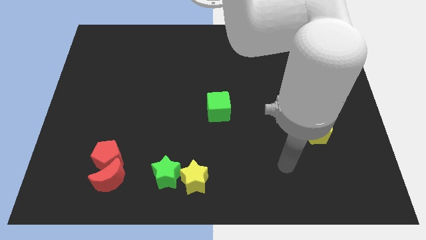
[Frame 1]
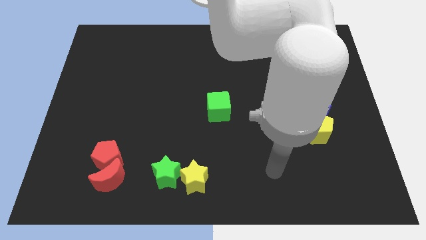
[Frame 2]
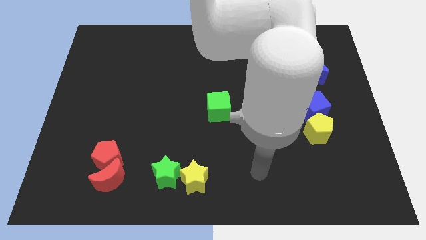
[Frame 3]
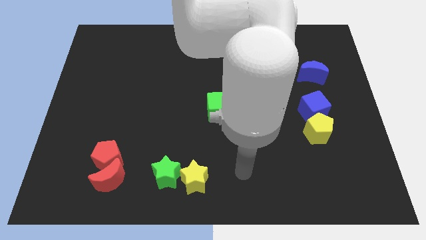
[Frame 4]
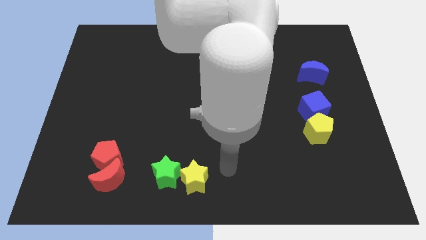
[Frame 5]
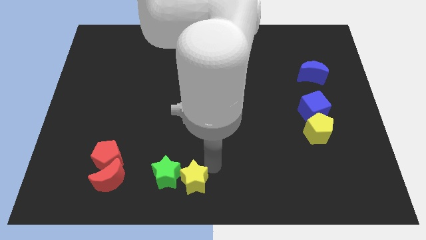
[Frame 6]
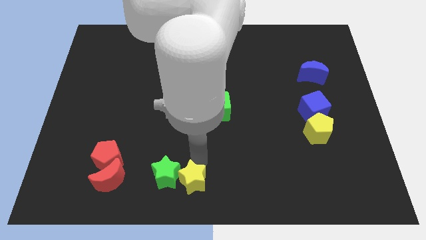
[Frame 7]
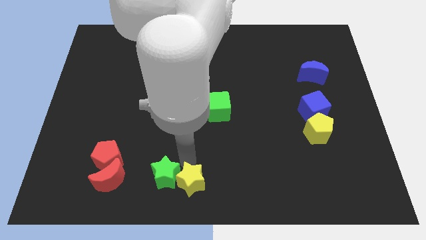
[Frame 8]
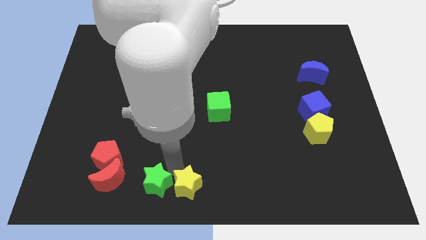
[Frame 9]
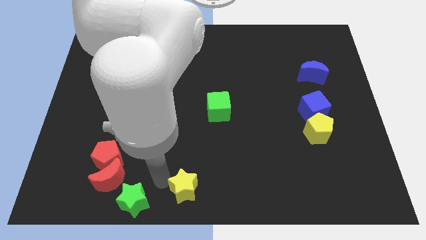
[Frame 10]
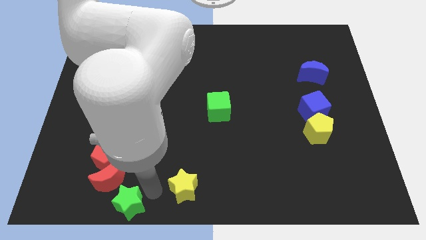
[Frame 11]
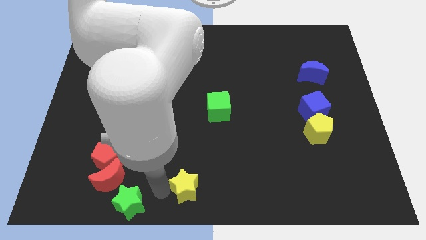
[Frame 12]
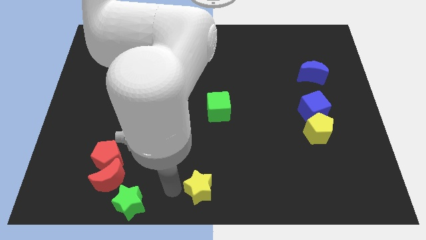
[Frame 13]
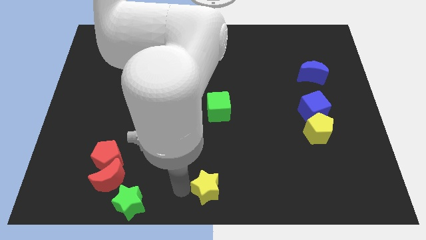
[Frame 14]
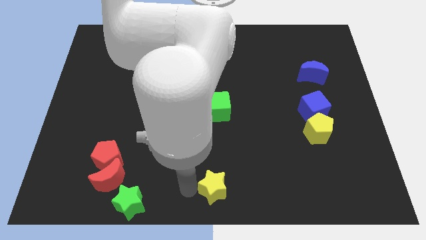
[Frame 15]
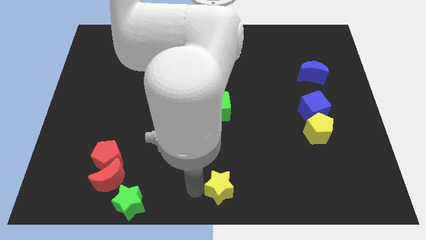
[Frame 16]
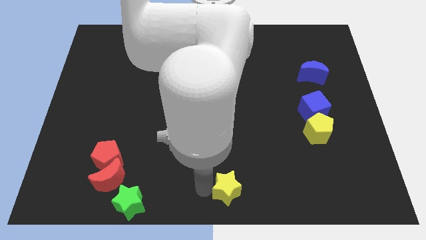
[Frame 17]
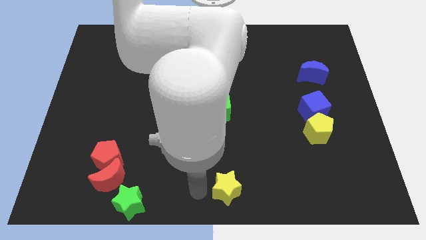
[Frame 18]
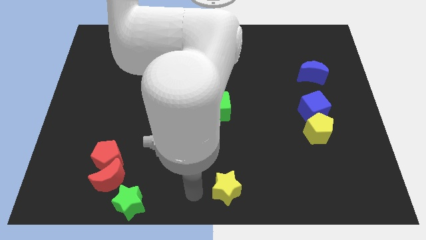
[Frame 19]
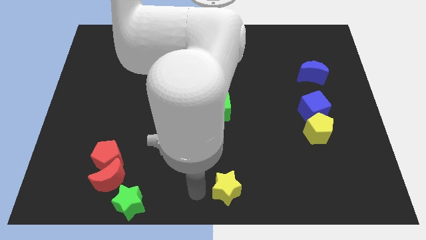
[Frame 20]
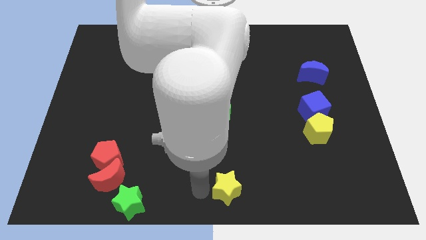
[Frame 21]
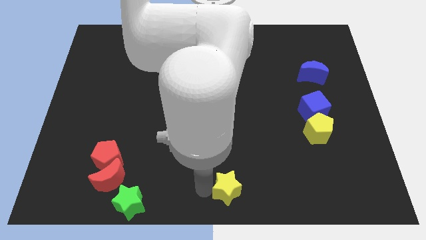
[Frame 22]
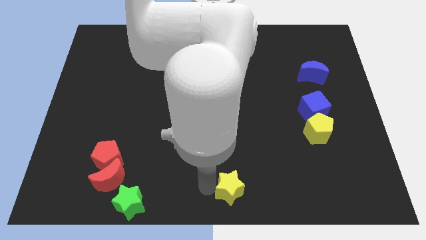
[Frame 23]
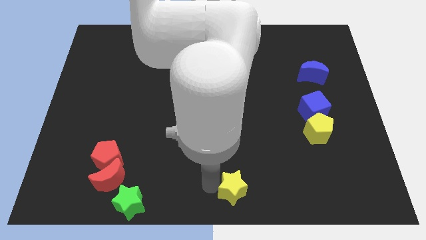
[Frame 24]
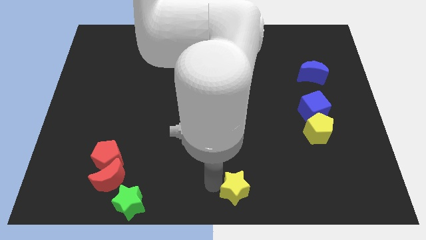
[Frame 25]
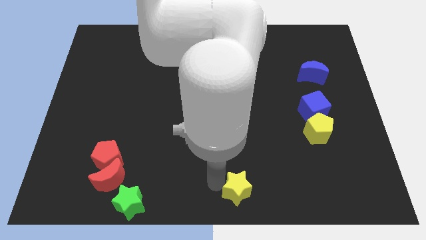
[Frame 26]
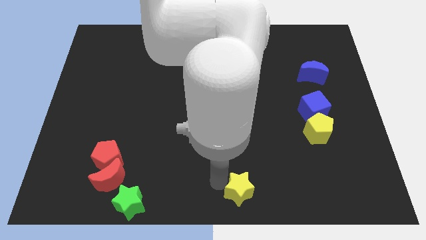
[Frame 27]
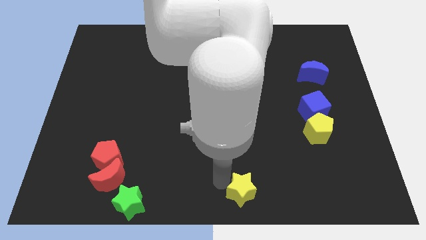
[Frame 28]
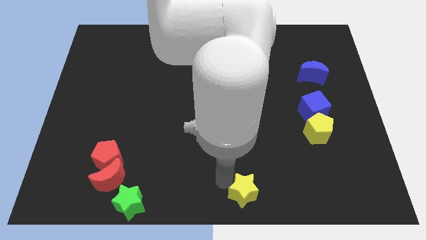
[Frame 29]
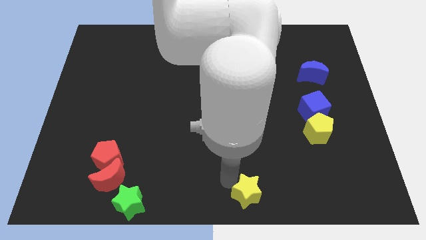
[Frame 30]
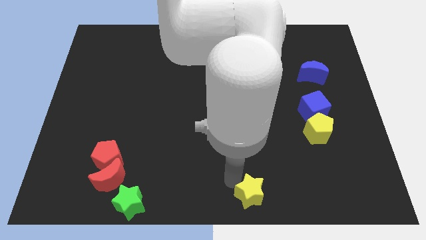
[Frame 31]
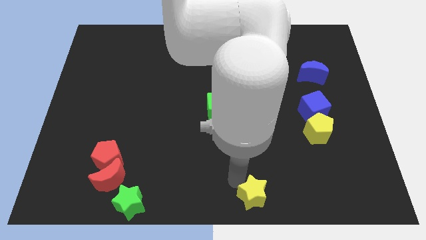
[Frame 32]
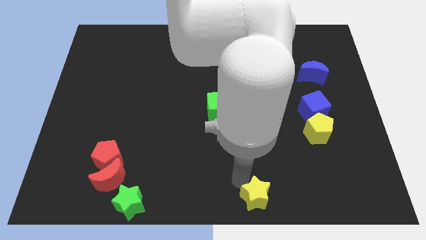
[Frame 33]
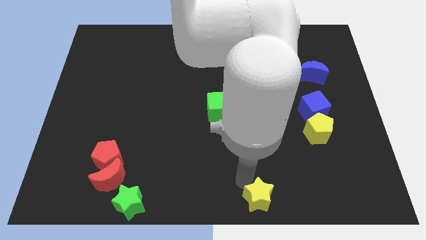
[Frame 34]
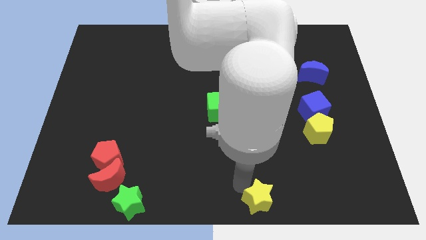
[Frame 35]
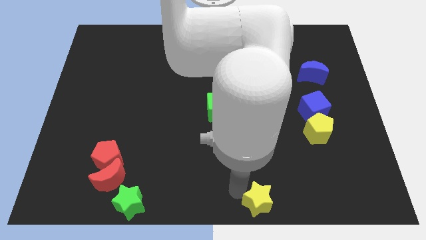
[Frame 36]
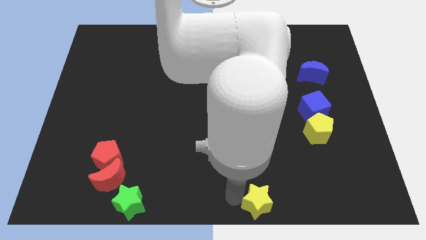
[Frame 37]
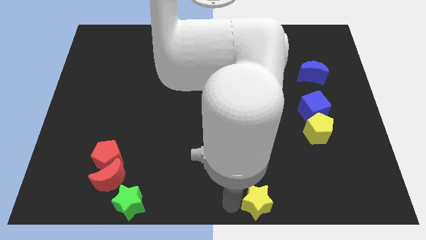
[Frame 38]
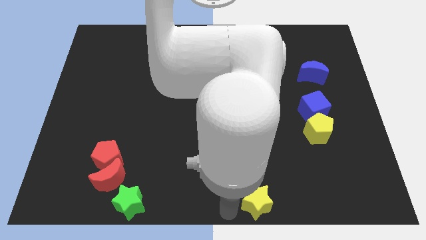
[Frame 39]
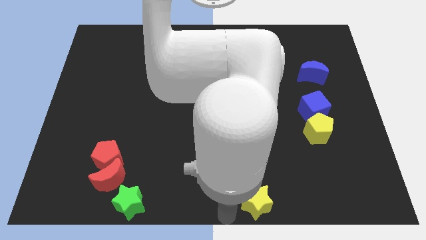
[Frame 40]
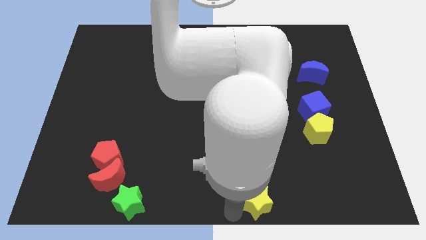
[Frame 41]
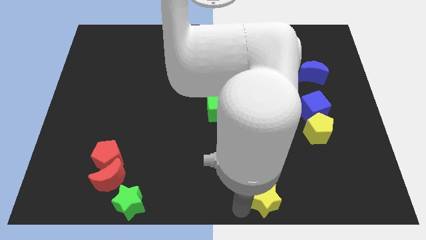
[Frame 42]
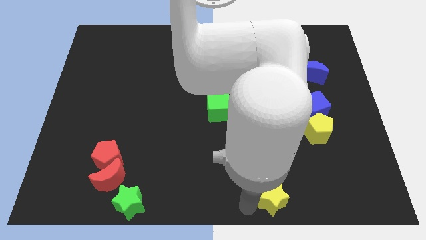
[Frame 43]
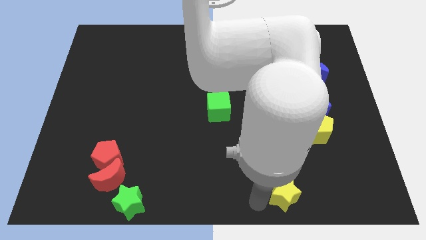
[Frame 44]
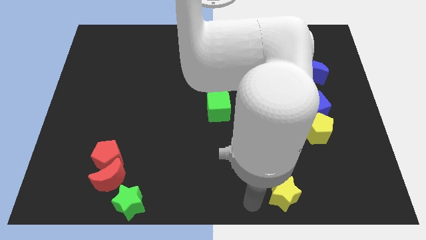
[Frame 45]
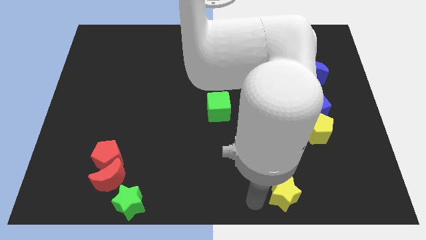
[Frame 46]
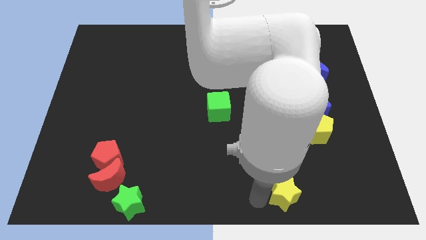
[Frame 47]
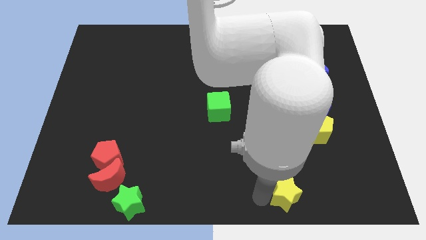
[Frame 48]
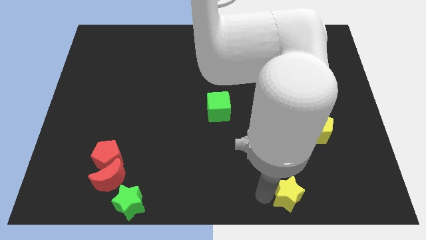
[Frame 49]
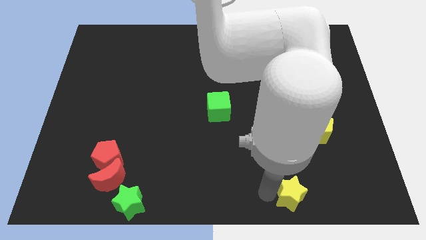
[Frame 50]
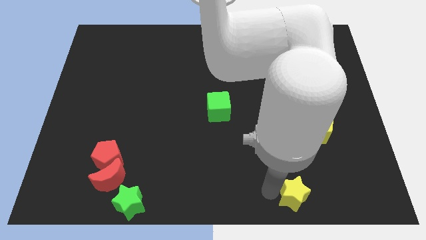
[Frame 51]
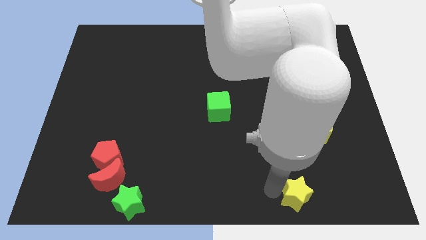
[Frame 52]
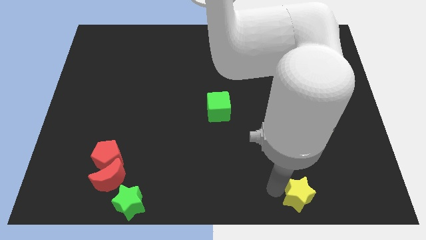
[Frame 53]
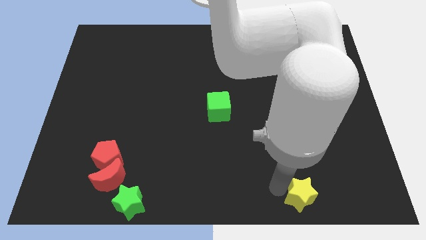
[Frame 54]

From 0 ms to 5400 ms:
push the yellow star to the right

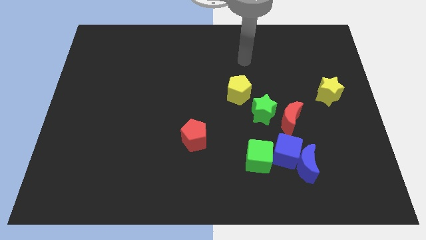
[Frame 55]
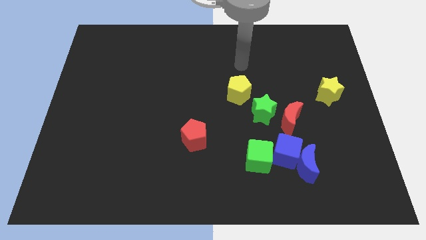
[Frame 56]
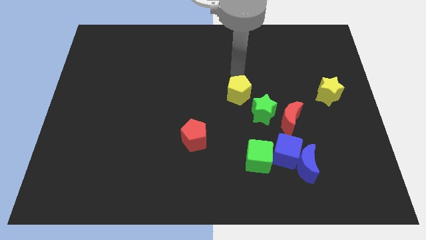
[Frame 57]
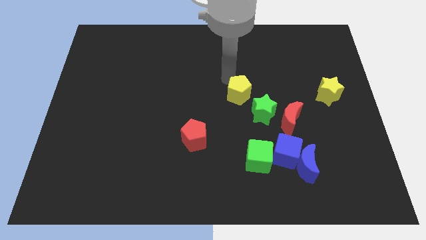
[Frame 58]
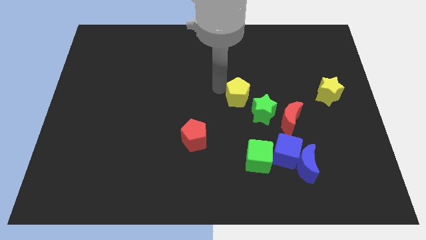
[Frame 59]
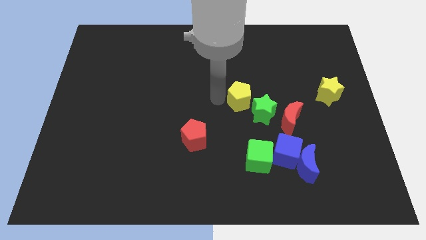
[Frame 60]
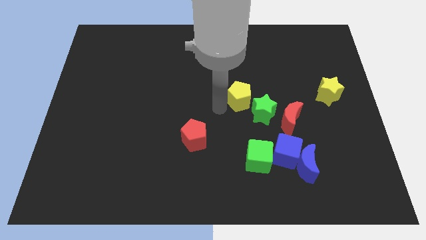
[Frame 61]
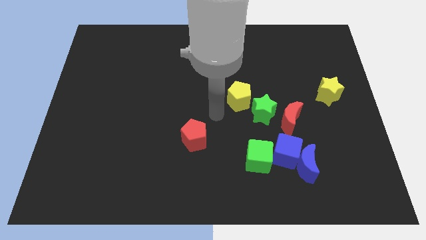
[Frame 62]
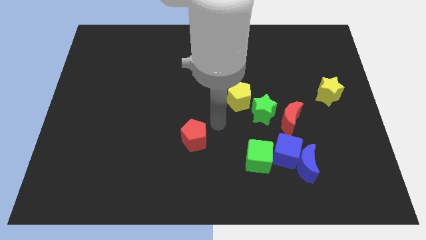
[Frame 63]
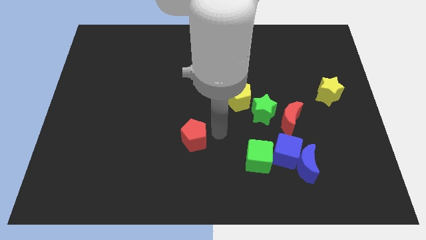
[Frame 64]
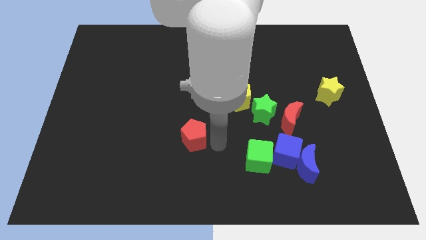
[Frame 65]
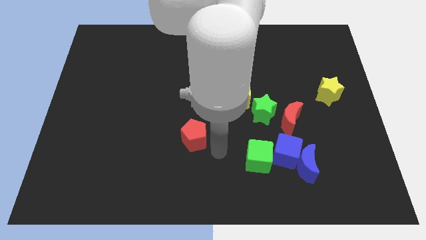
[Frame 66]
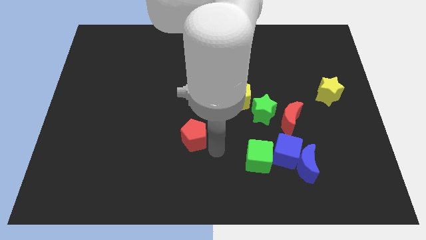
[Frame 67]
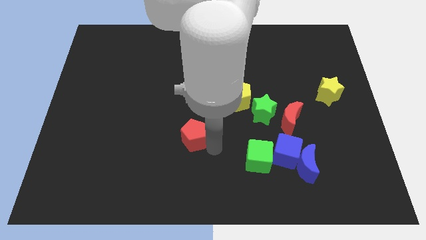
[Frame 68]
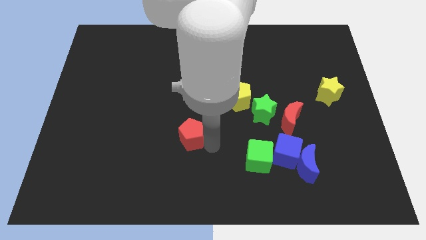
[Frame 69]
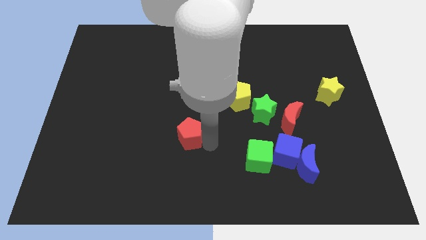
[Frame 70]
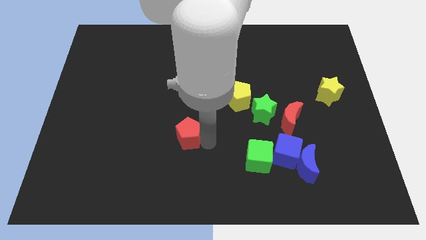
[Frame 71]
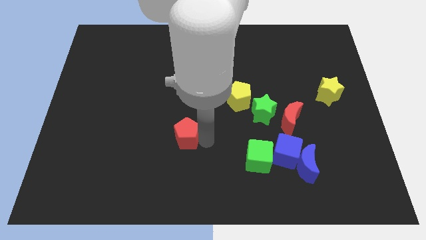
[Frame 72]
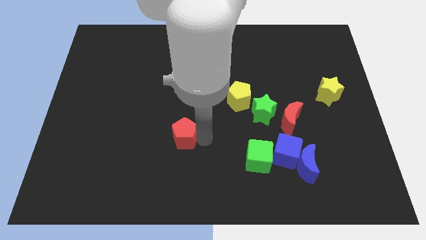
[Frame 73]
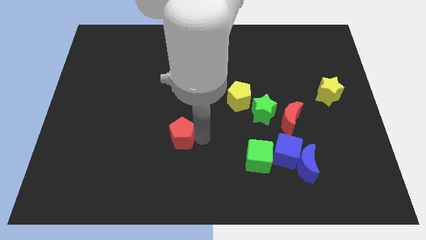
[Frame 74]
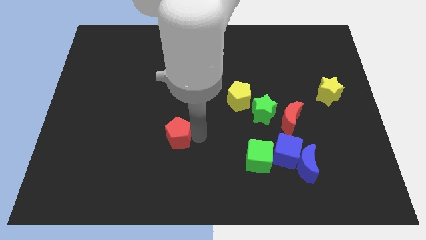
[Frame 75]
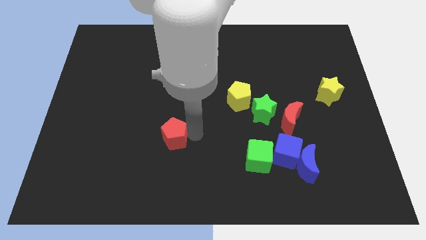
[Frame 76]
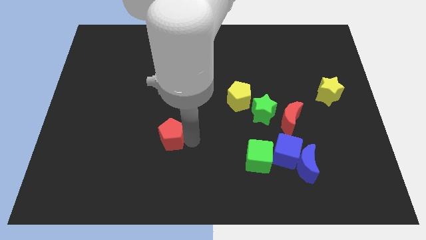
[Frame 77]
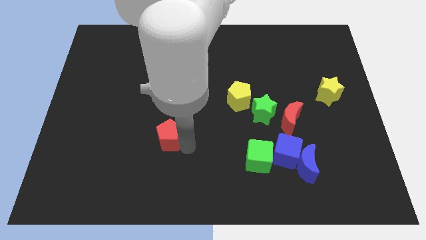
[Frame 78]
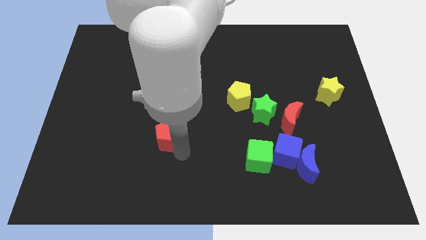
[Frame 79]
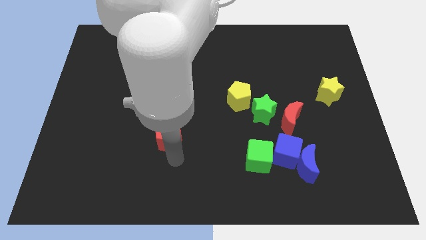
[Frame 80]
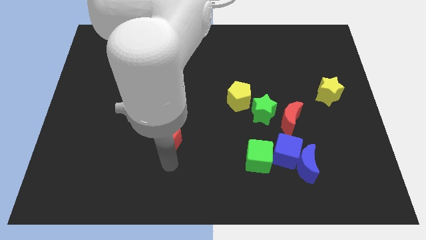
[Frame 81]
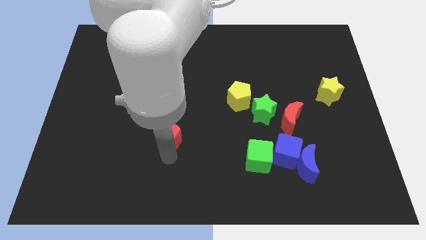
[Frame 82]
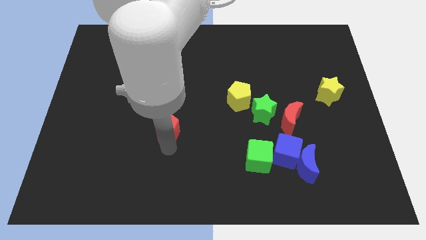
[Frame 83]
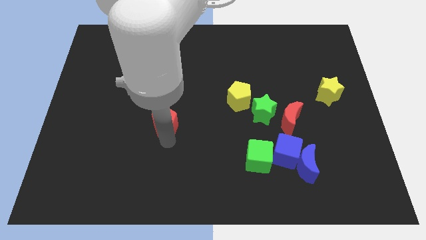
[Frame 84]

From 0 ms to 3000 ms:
slightly push the red pentagon up and left
